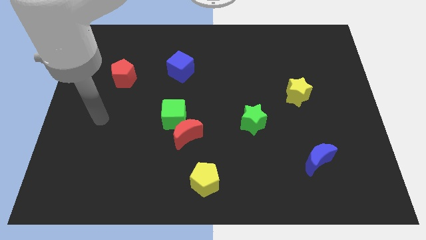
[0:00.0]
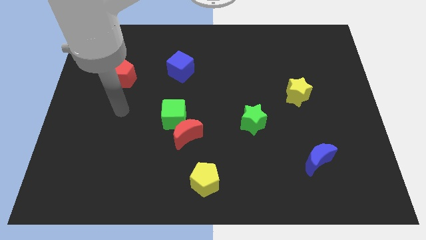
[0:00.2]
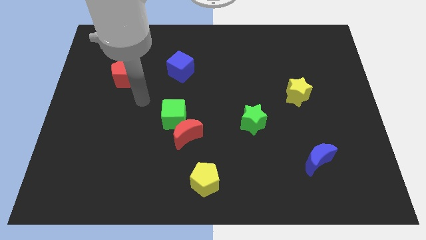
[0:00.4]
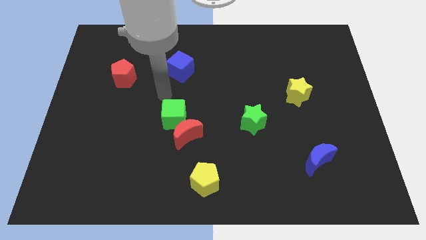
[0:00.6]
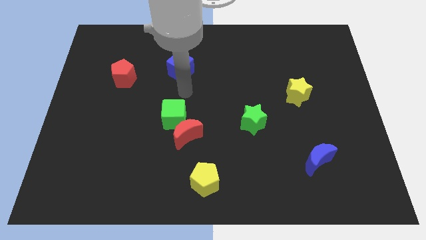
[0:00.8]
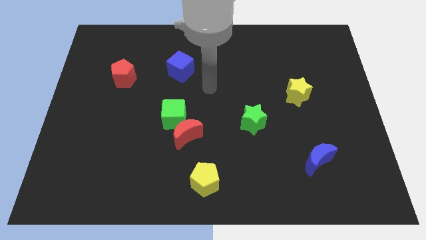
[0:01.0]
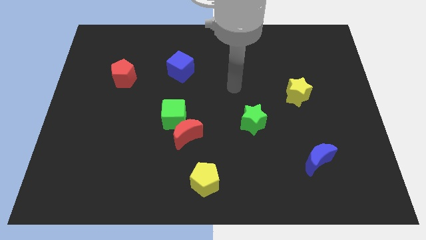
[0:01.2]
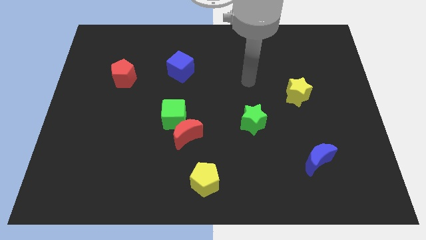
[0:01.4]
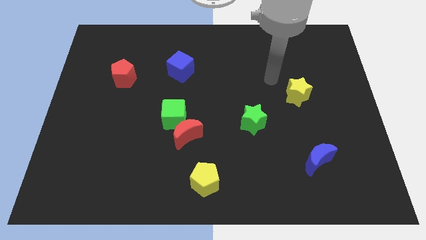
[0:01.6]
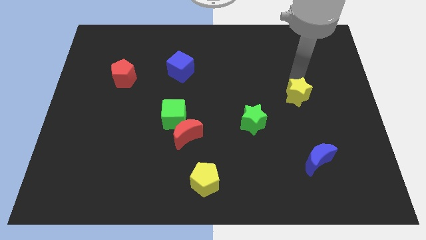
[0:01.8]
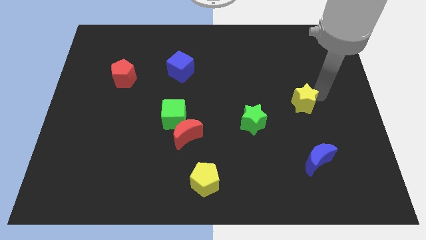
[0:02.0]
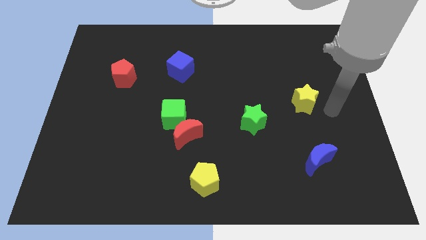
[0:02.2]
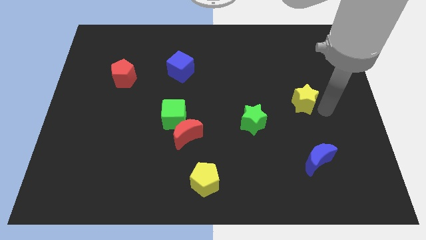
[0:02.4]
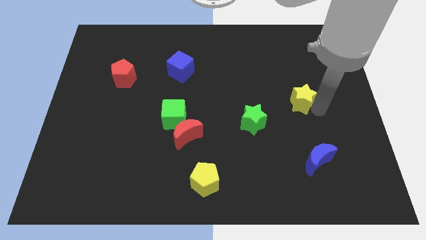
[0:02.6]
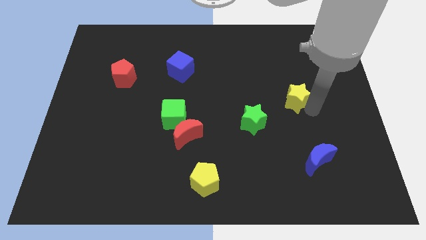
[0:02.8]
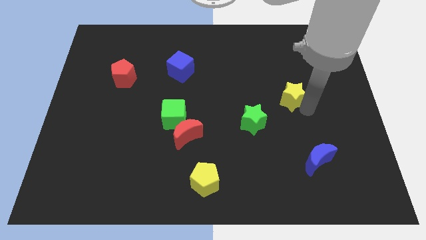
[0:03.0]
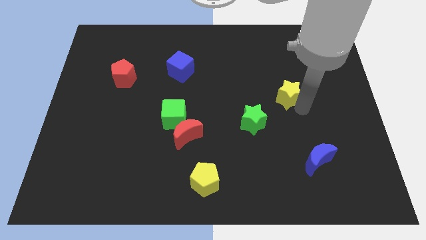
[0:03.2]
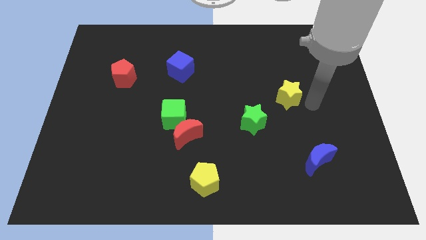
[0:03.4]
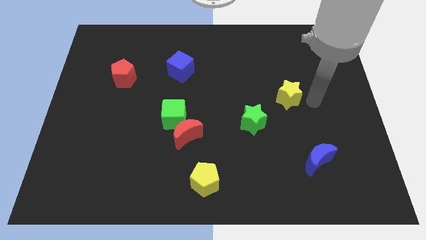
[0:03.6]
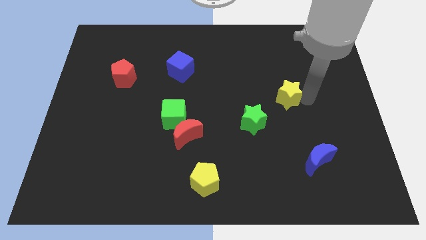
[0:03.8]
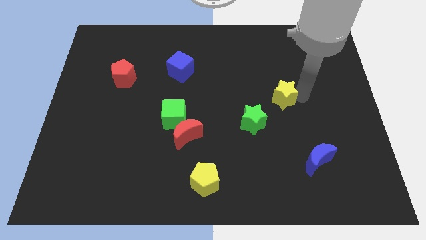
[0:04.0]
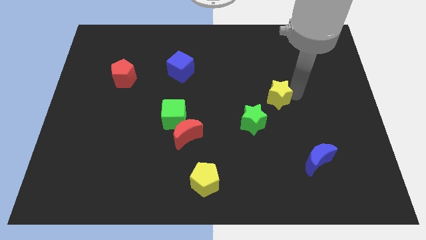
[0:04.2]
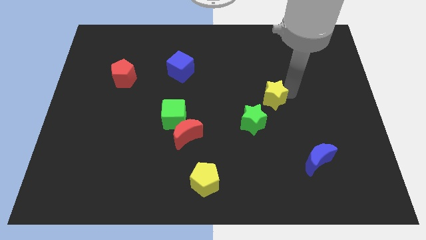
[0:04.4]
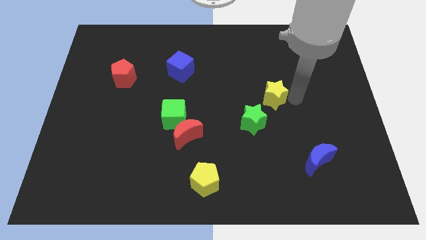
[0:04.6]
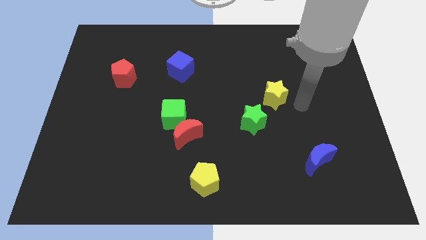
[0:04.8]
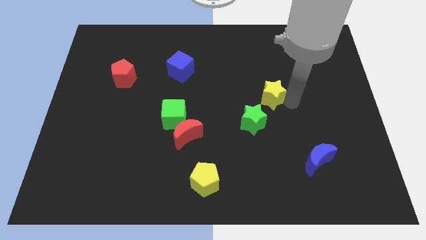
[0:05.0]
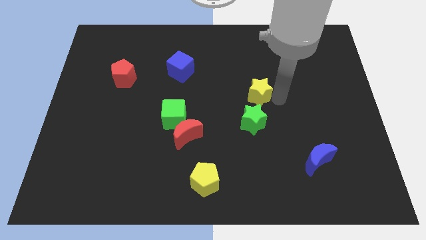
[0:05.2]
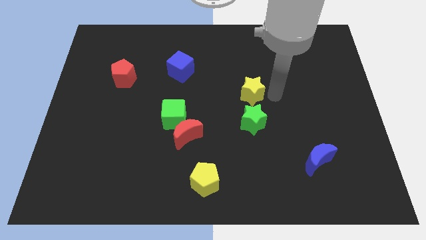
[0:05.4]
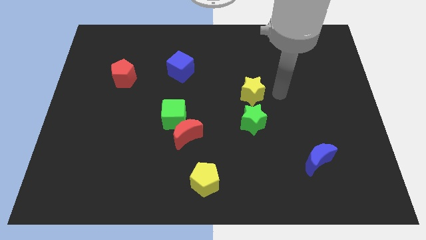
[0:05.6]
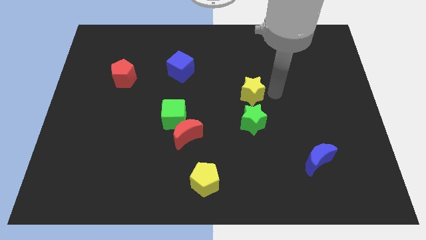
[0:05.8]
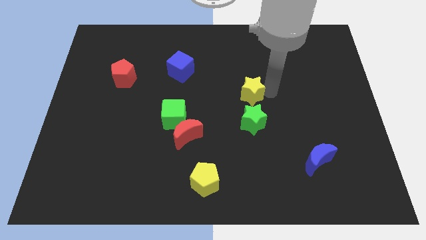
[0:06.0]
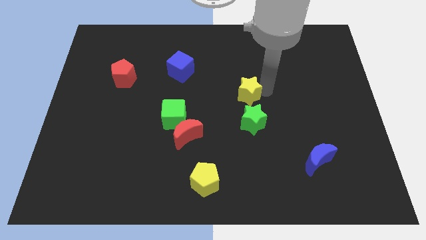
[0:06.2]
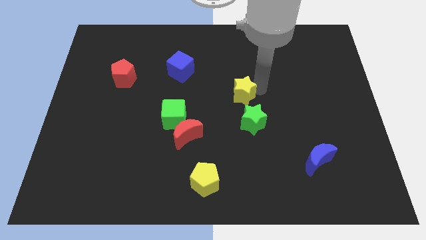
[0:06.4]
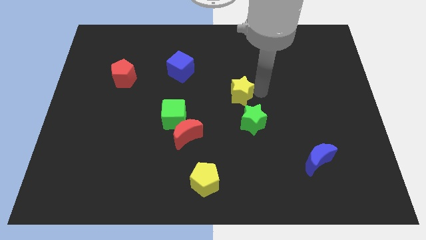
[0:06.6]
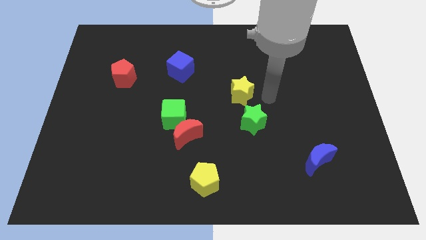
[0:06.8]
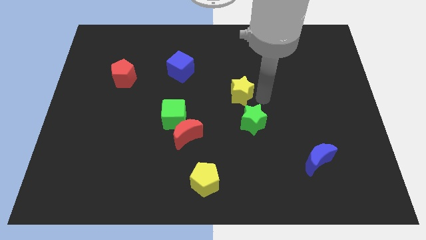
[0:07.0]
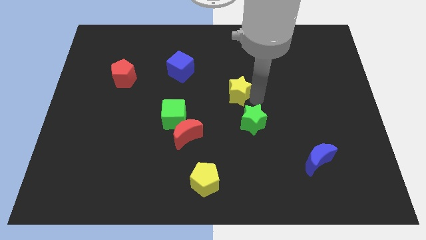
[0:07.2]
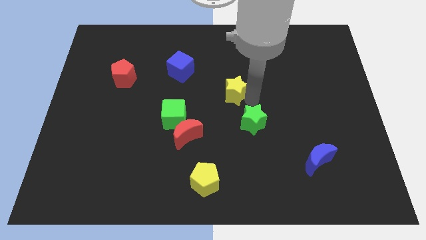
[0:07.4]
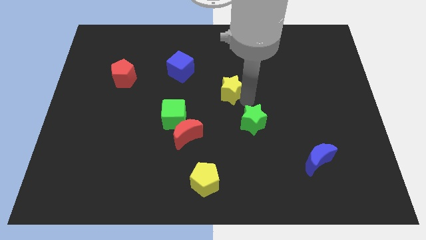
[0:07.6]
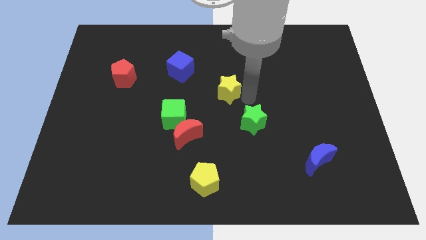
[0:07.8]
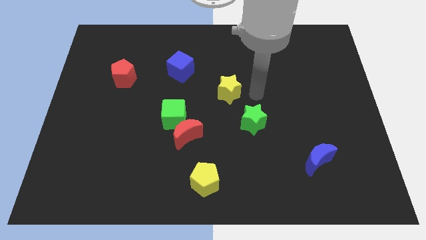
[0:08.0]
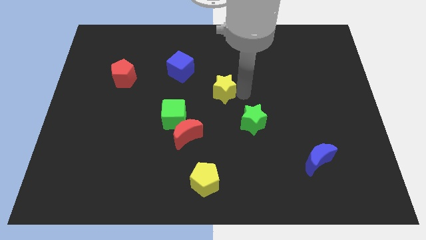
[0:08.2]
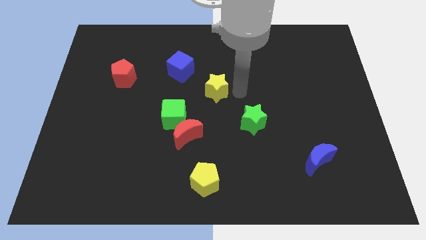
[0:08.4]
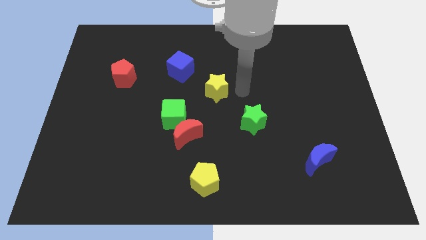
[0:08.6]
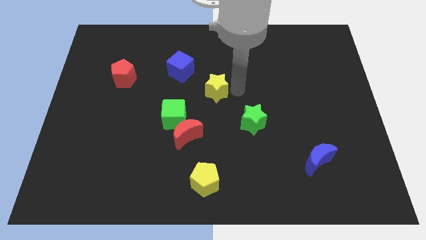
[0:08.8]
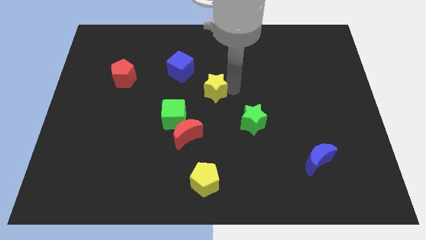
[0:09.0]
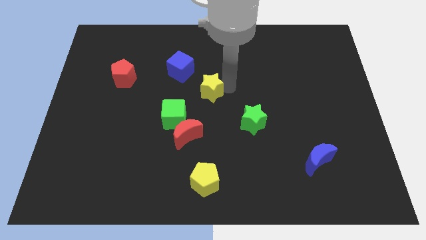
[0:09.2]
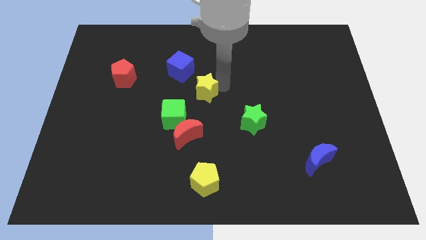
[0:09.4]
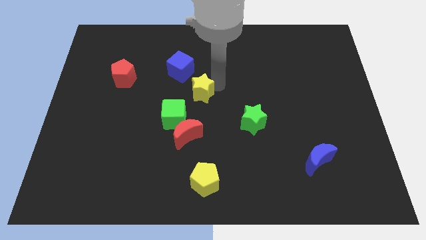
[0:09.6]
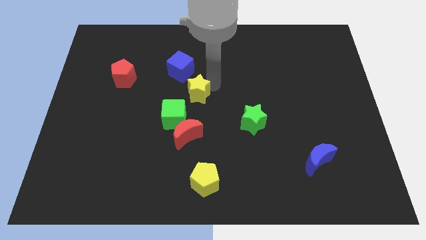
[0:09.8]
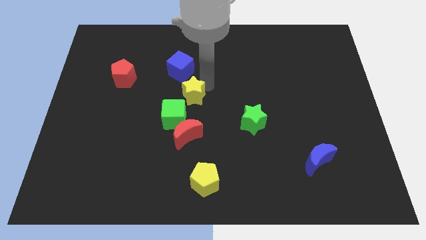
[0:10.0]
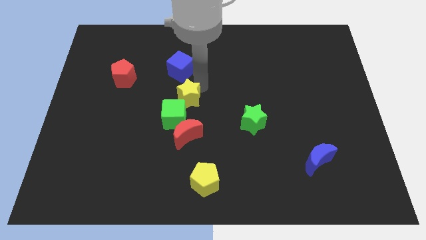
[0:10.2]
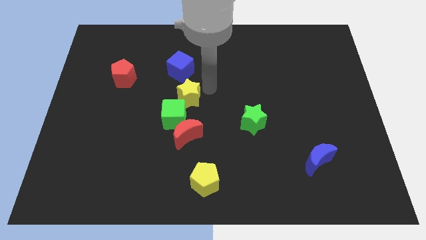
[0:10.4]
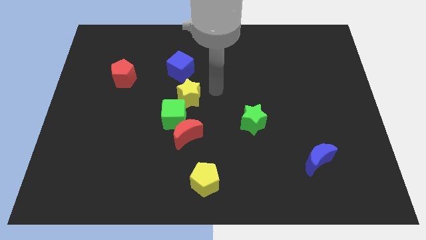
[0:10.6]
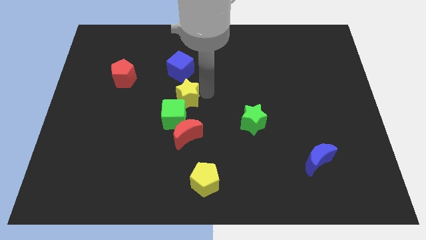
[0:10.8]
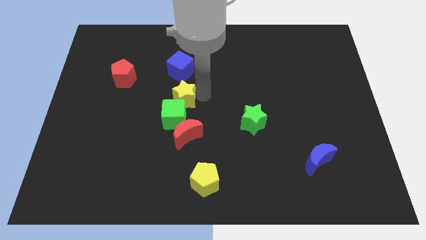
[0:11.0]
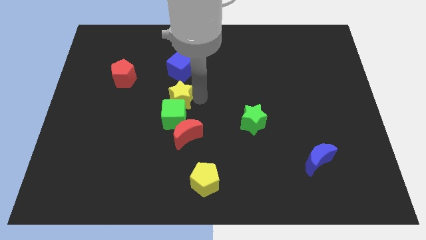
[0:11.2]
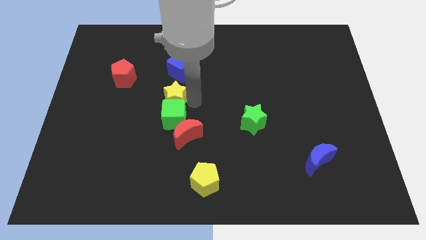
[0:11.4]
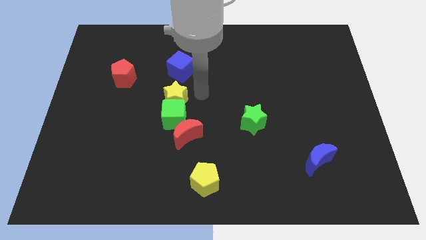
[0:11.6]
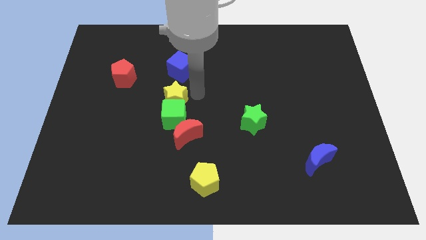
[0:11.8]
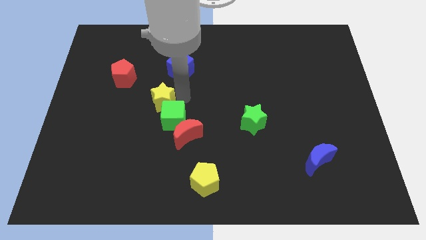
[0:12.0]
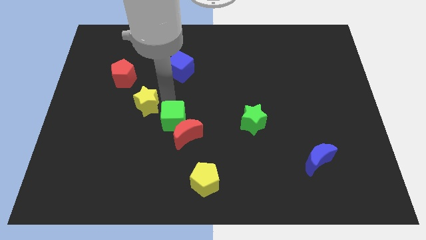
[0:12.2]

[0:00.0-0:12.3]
slide the yellow star to the left of the green cube
